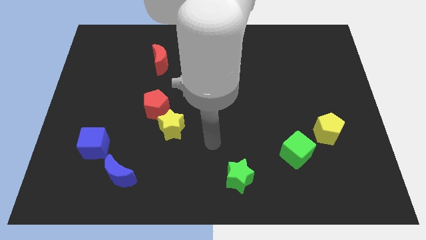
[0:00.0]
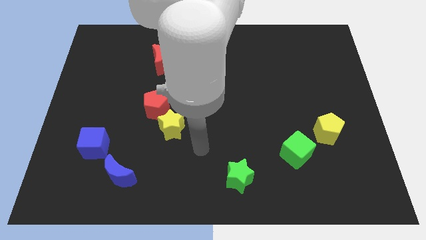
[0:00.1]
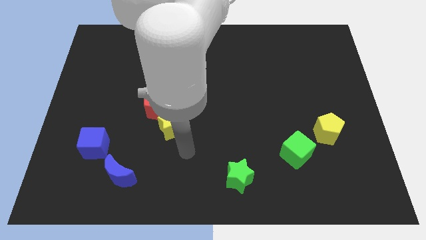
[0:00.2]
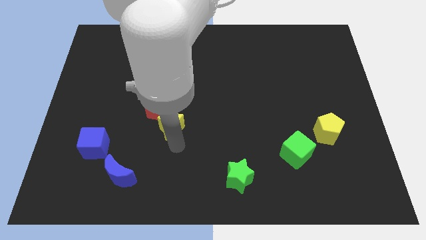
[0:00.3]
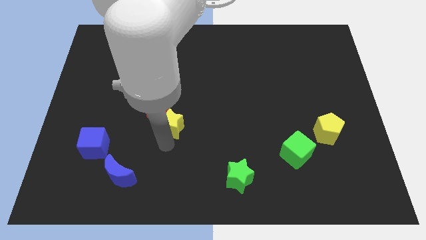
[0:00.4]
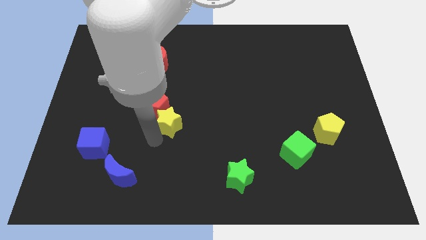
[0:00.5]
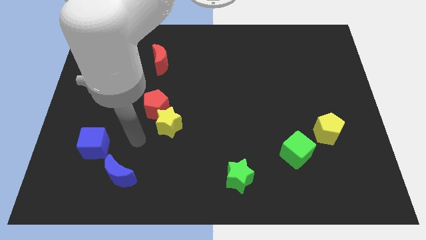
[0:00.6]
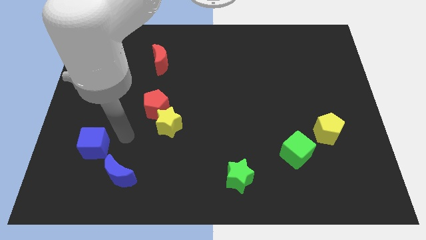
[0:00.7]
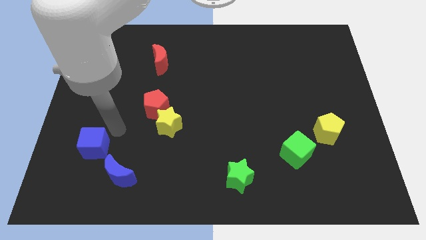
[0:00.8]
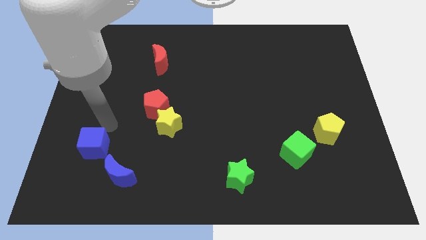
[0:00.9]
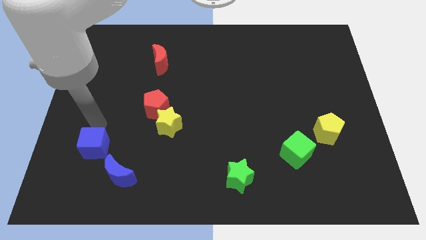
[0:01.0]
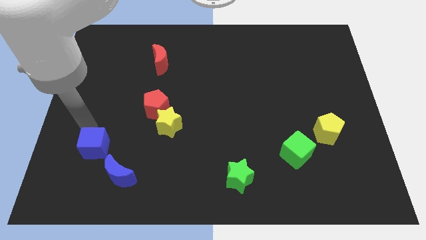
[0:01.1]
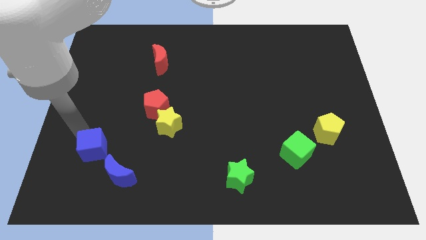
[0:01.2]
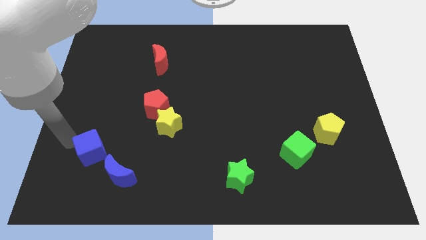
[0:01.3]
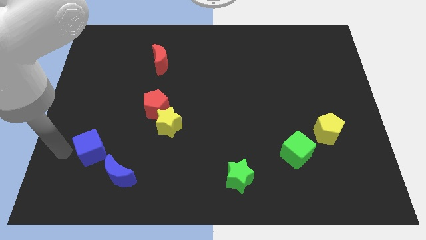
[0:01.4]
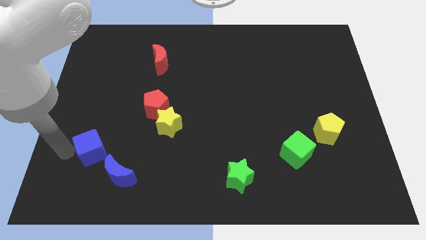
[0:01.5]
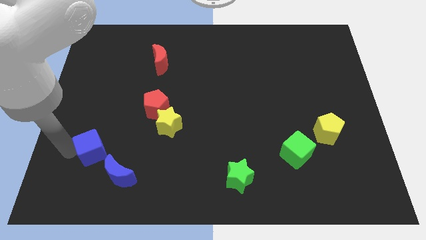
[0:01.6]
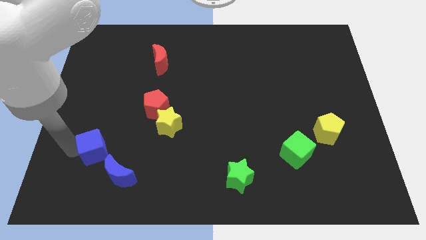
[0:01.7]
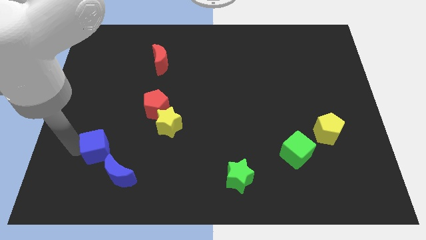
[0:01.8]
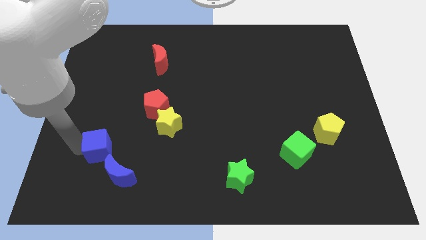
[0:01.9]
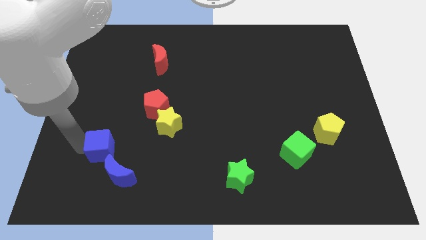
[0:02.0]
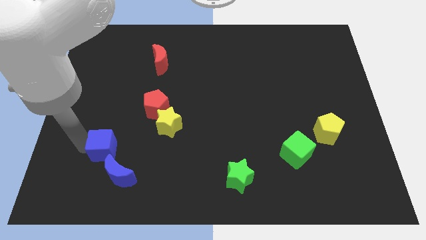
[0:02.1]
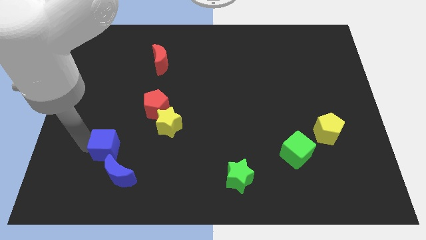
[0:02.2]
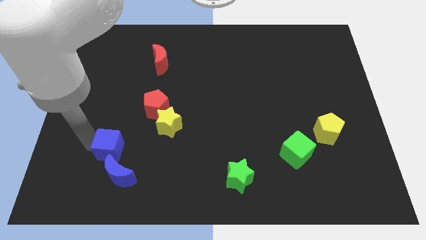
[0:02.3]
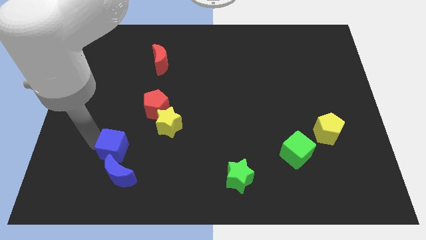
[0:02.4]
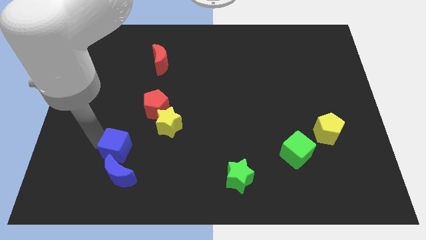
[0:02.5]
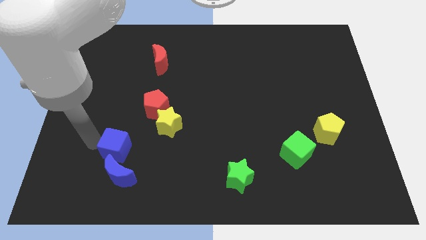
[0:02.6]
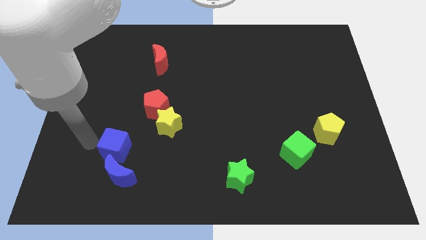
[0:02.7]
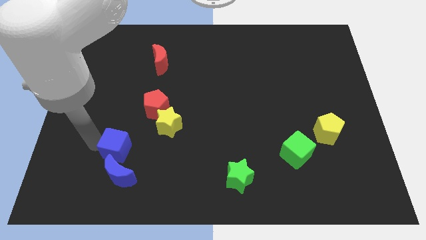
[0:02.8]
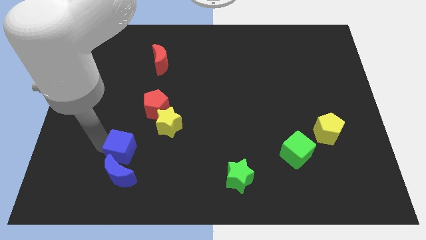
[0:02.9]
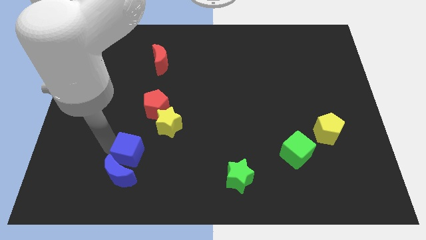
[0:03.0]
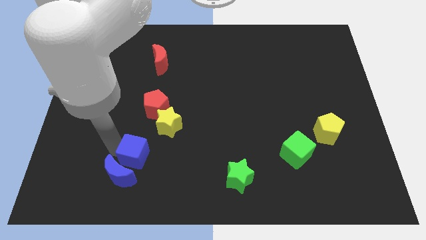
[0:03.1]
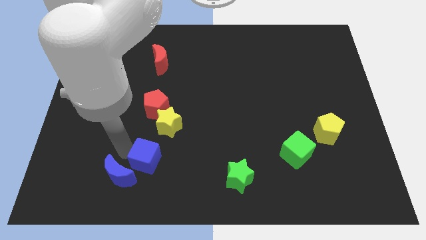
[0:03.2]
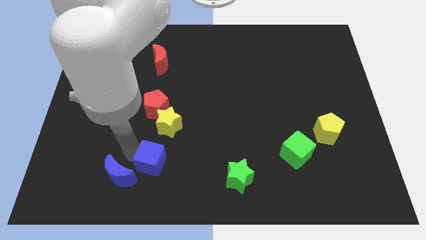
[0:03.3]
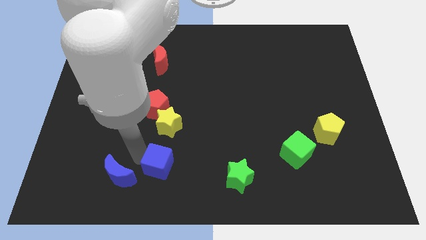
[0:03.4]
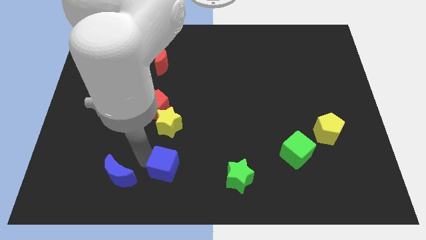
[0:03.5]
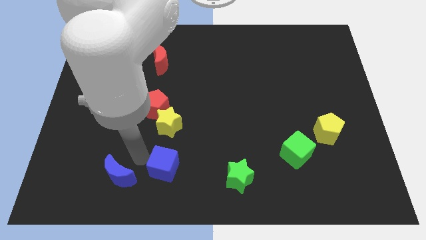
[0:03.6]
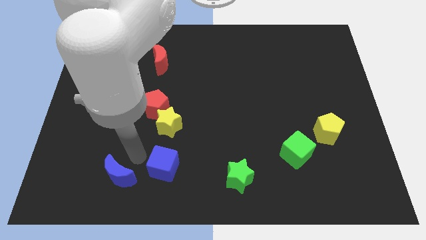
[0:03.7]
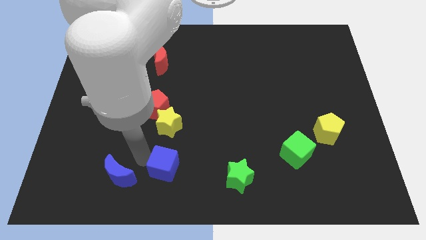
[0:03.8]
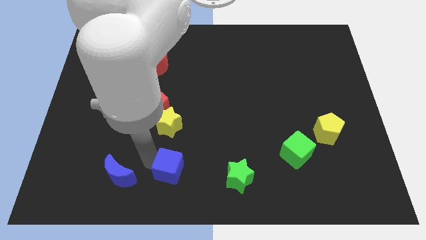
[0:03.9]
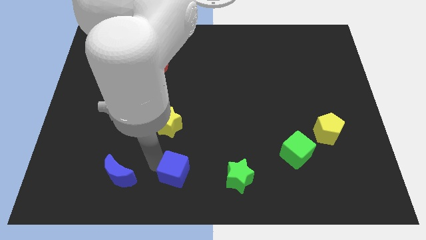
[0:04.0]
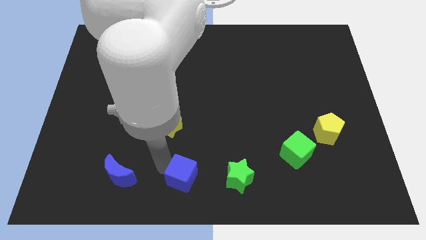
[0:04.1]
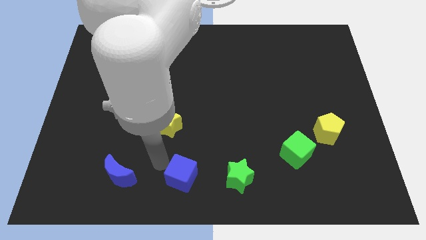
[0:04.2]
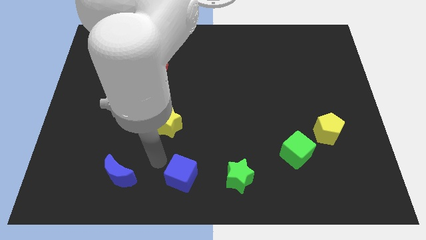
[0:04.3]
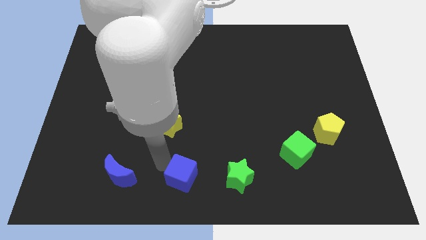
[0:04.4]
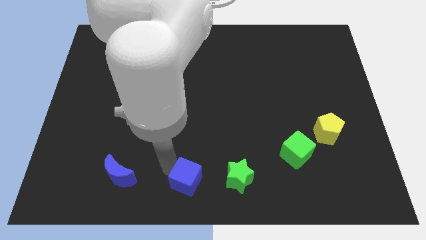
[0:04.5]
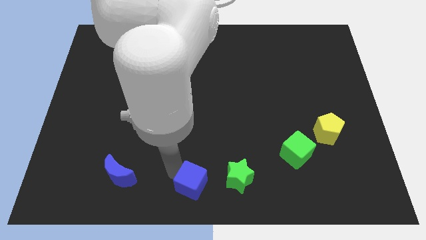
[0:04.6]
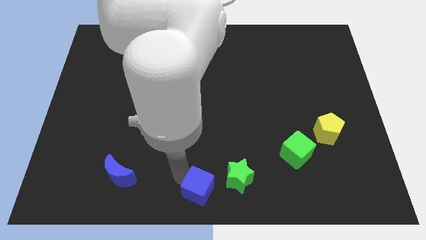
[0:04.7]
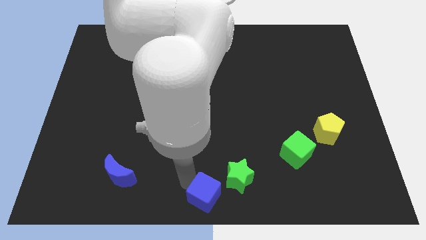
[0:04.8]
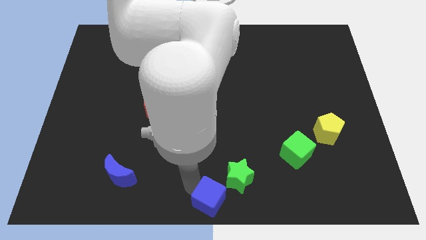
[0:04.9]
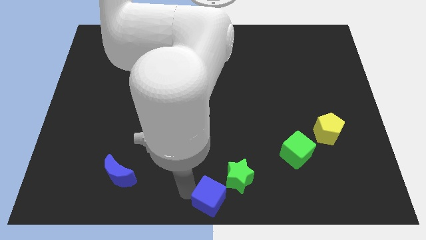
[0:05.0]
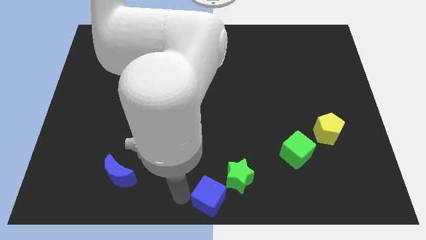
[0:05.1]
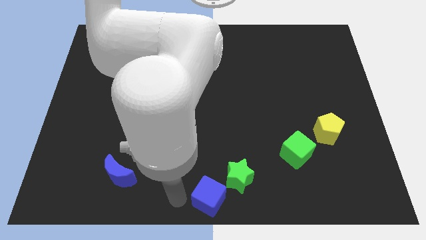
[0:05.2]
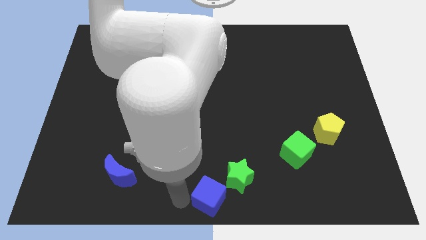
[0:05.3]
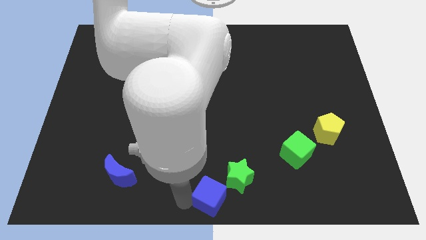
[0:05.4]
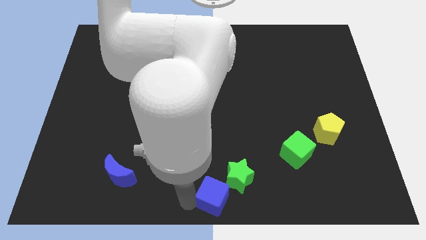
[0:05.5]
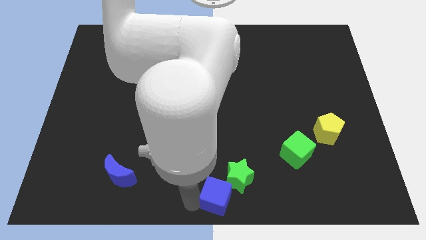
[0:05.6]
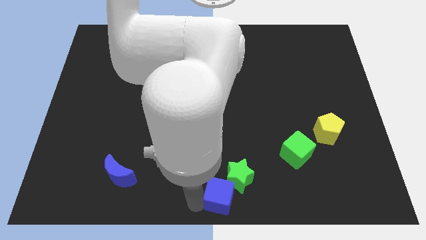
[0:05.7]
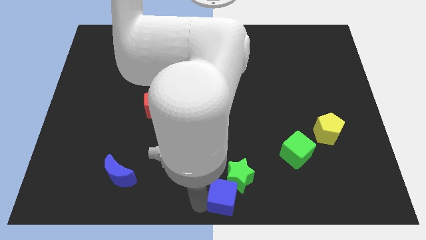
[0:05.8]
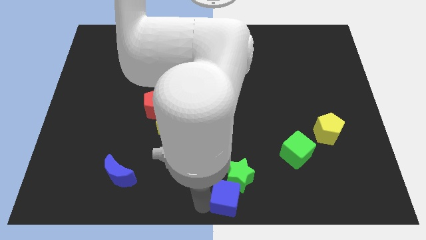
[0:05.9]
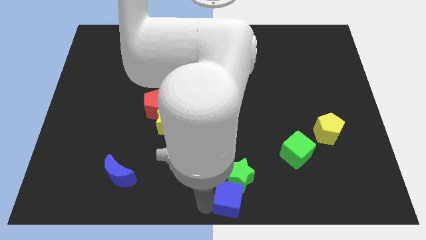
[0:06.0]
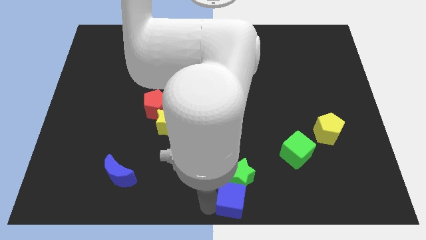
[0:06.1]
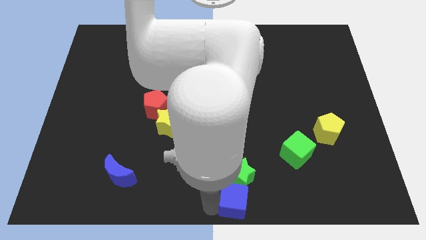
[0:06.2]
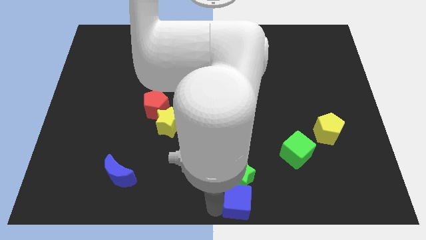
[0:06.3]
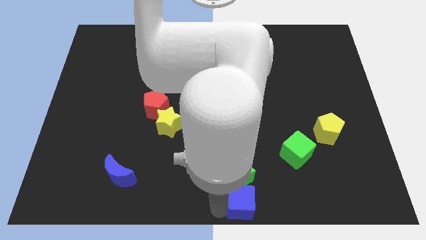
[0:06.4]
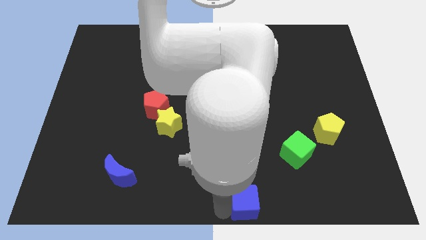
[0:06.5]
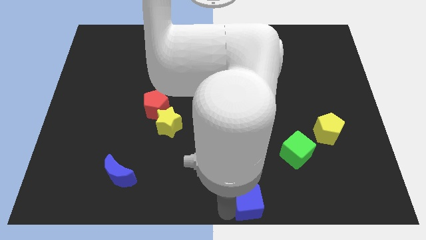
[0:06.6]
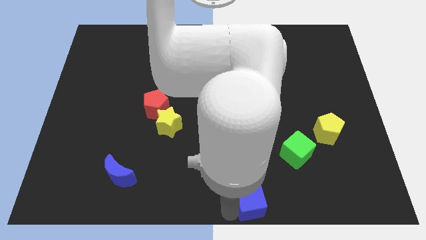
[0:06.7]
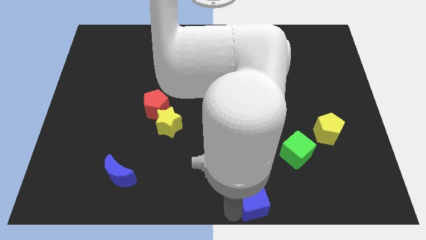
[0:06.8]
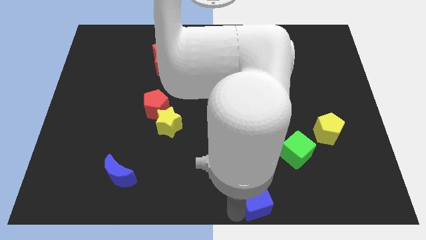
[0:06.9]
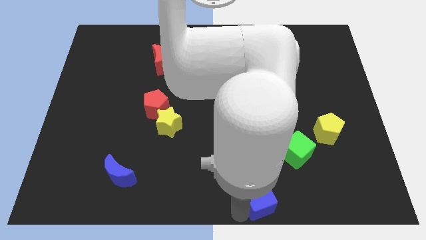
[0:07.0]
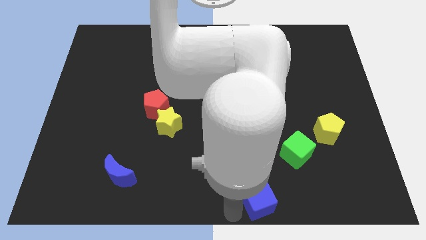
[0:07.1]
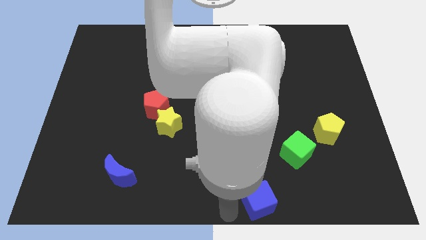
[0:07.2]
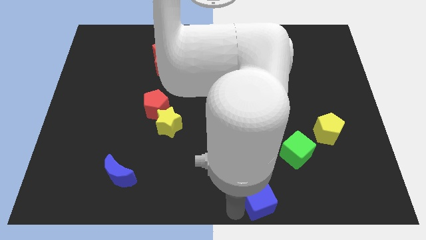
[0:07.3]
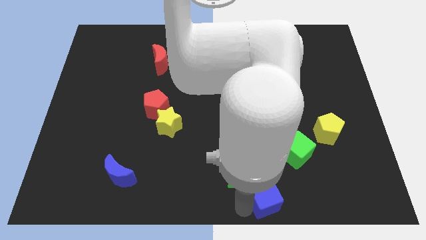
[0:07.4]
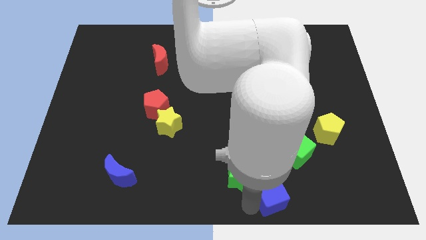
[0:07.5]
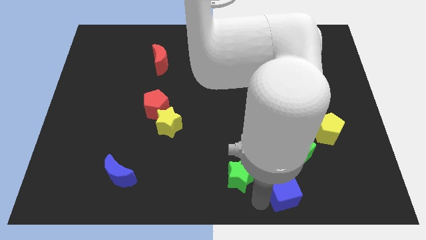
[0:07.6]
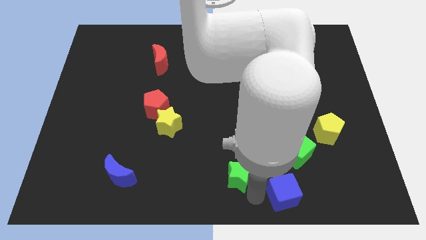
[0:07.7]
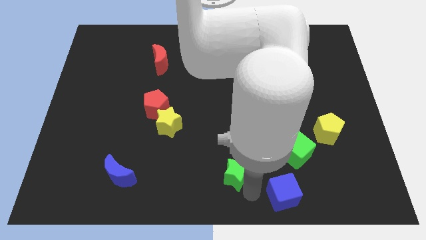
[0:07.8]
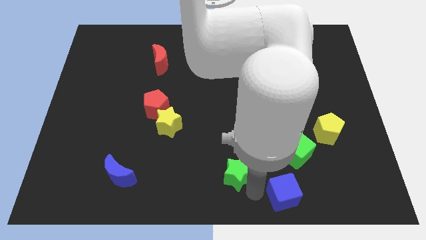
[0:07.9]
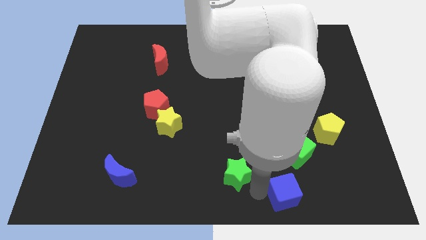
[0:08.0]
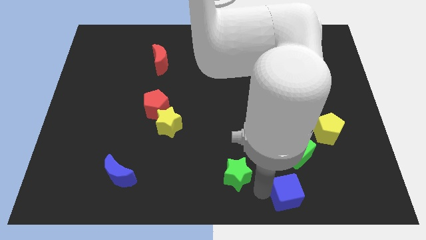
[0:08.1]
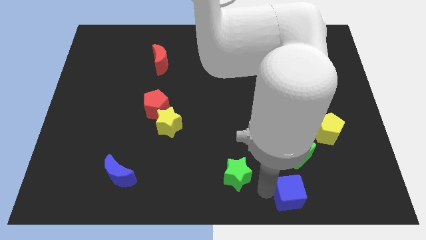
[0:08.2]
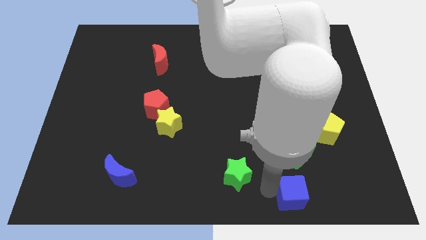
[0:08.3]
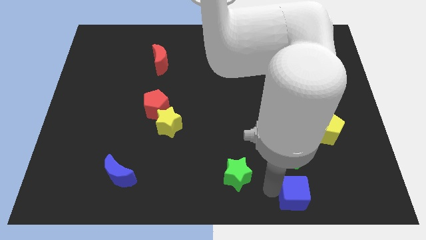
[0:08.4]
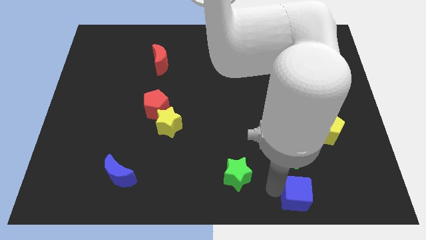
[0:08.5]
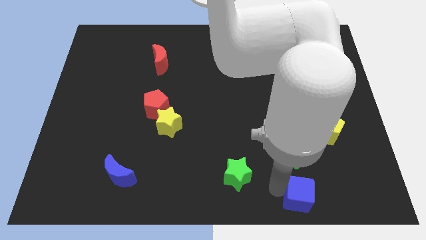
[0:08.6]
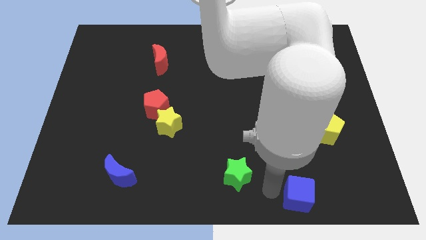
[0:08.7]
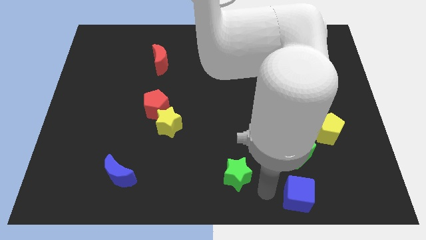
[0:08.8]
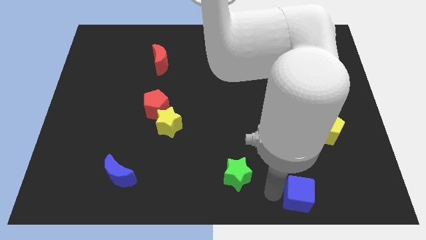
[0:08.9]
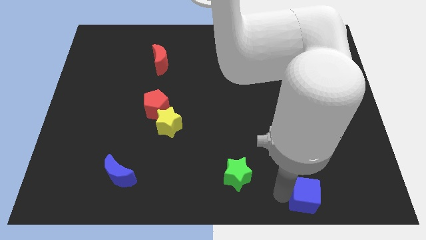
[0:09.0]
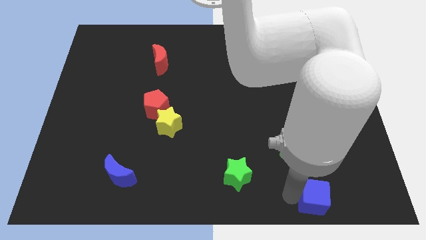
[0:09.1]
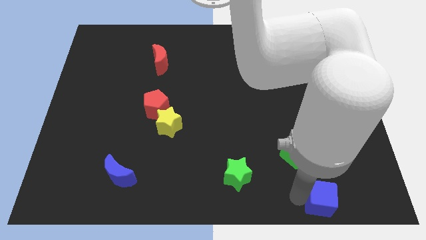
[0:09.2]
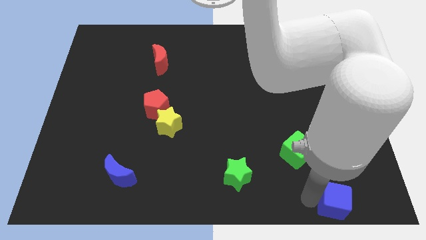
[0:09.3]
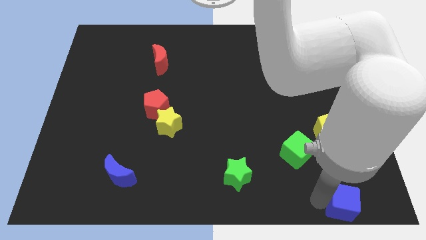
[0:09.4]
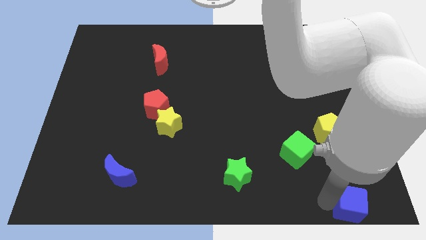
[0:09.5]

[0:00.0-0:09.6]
put the blue cube to the lower right corner
